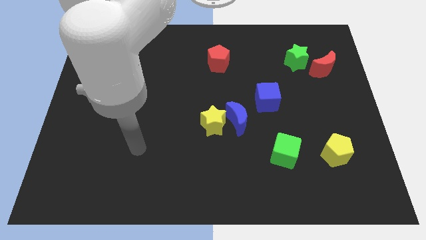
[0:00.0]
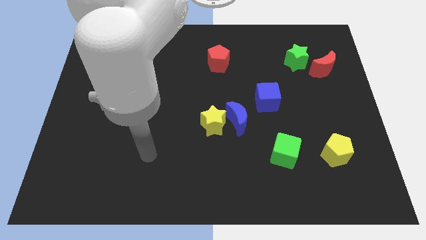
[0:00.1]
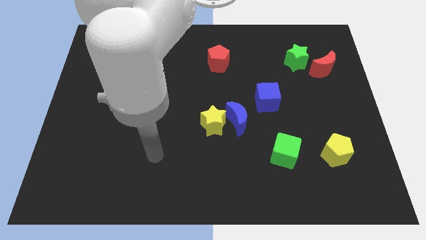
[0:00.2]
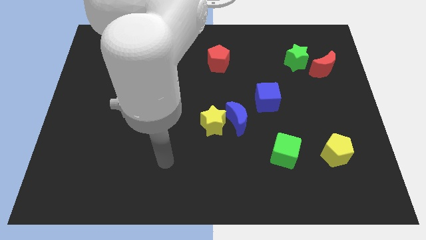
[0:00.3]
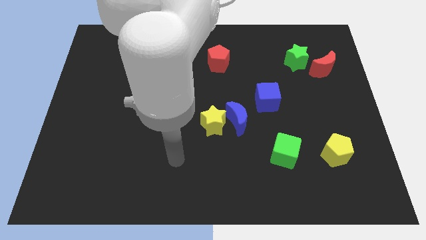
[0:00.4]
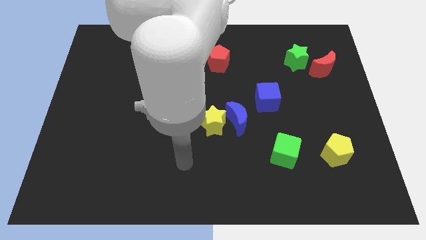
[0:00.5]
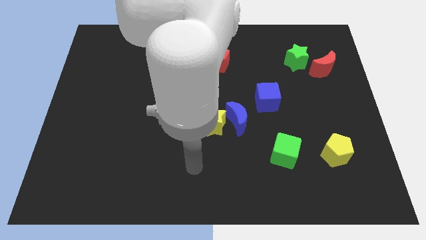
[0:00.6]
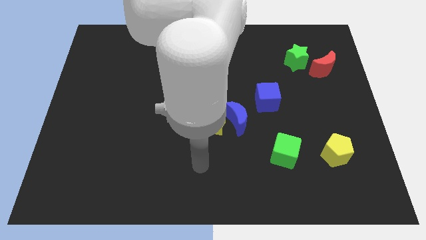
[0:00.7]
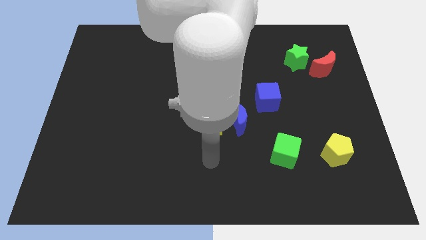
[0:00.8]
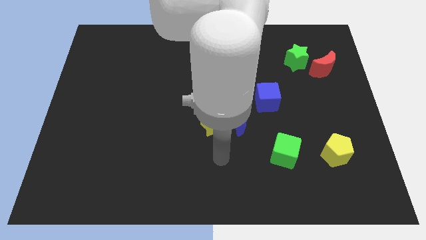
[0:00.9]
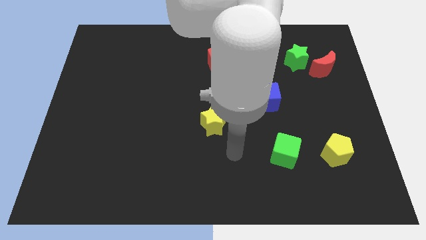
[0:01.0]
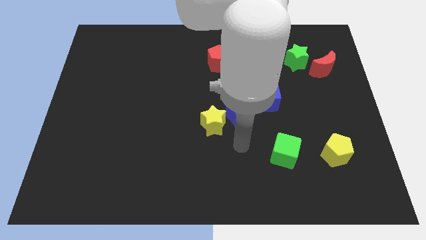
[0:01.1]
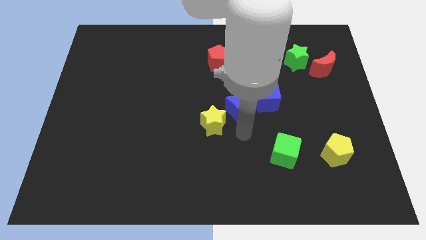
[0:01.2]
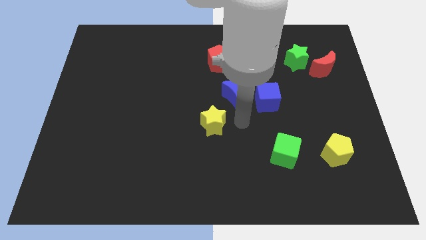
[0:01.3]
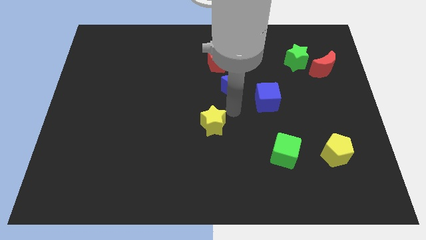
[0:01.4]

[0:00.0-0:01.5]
separate the yellow star from the blue moon

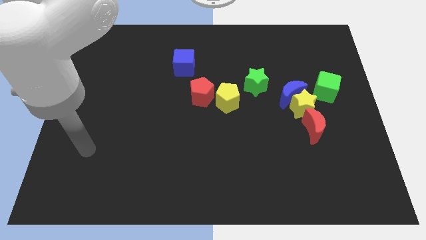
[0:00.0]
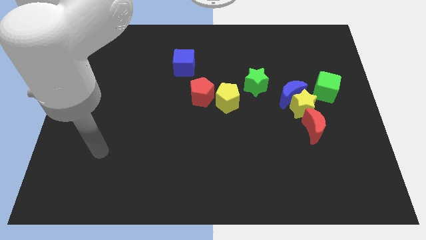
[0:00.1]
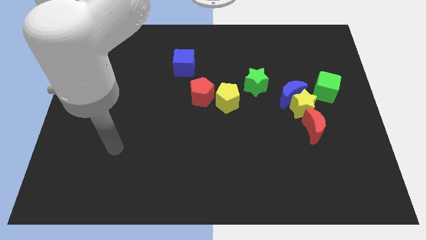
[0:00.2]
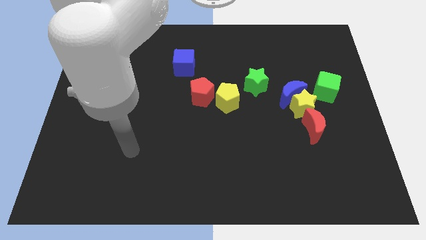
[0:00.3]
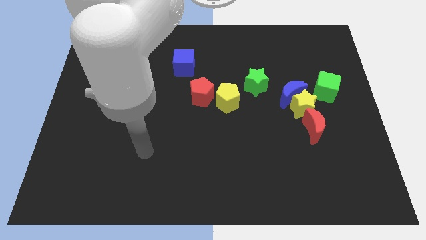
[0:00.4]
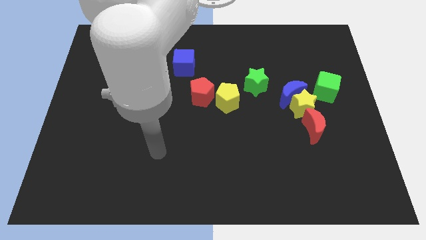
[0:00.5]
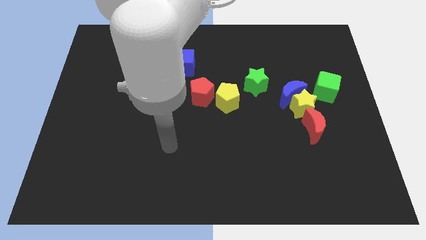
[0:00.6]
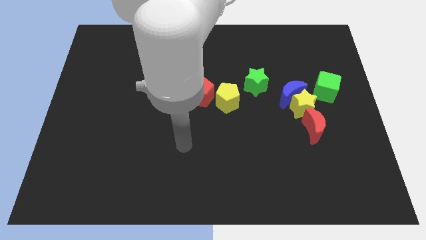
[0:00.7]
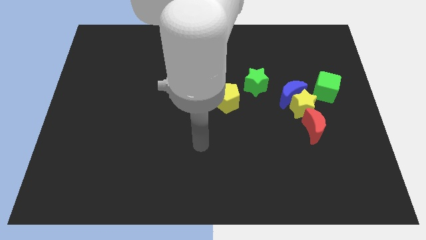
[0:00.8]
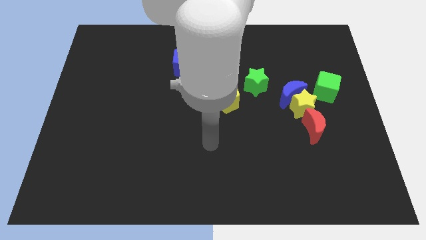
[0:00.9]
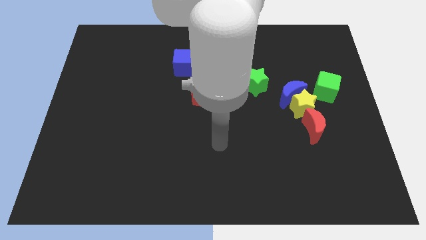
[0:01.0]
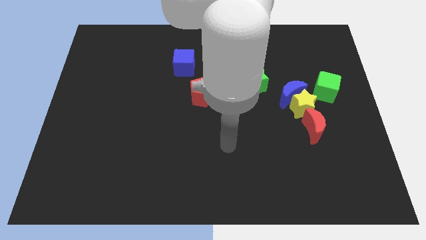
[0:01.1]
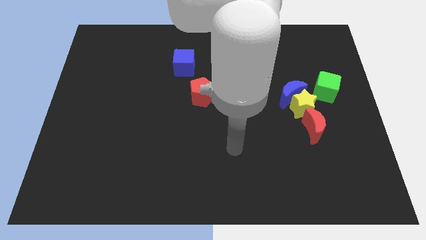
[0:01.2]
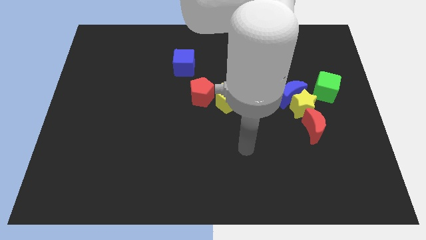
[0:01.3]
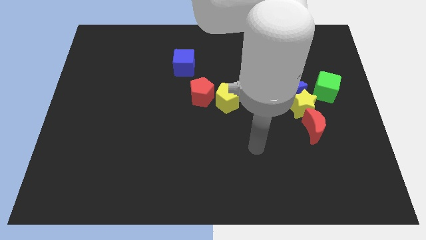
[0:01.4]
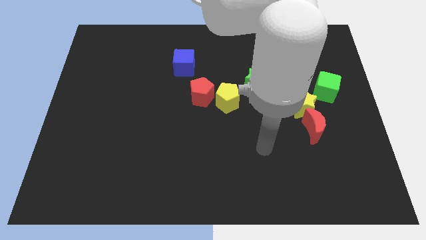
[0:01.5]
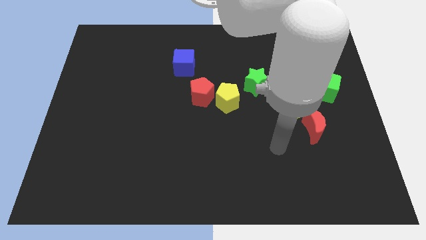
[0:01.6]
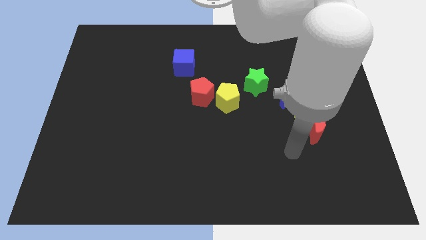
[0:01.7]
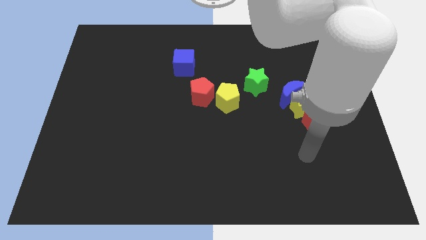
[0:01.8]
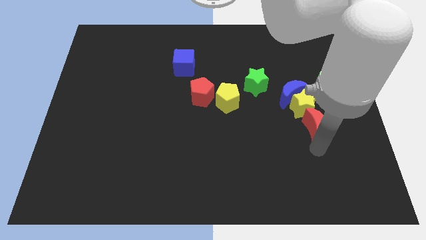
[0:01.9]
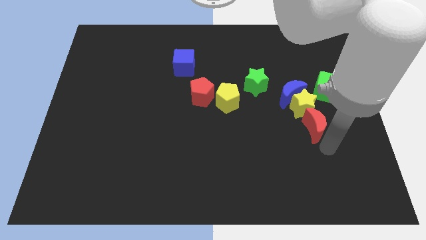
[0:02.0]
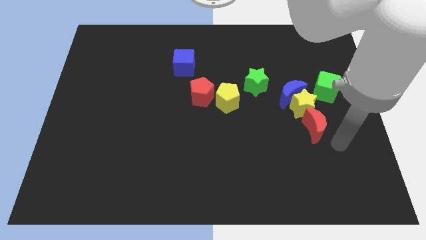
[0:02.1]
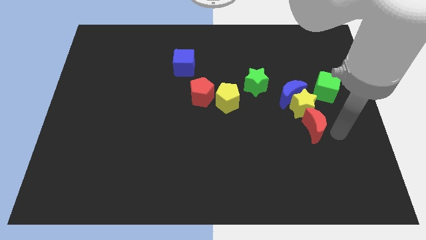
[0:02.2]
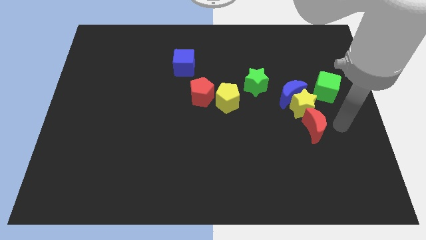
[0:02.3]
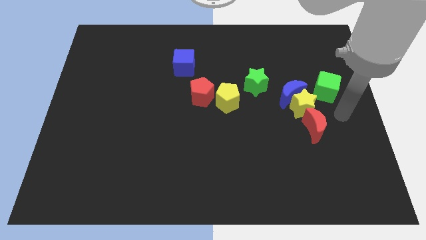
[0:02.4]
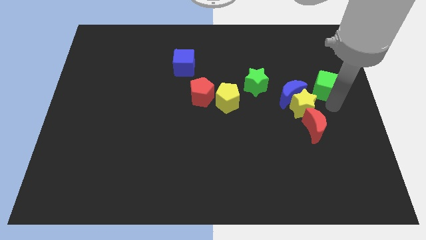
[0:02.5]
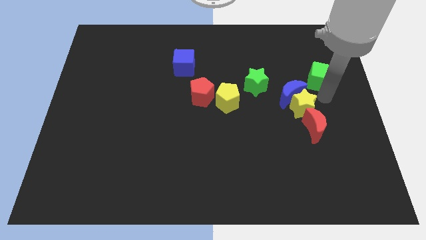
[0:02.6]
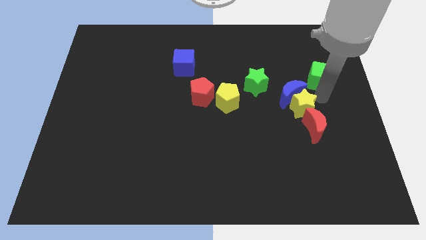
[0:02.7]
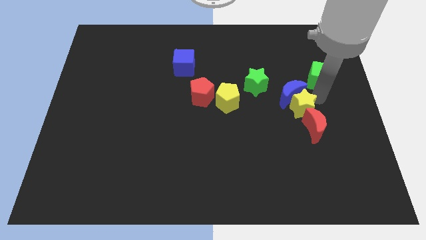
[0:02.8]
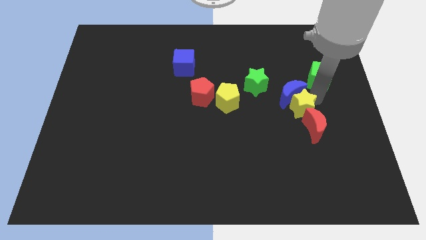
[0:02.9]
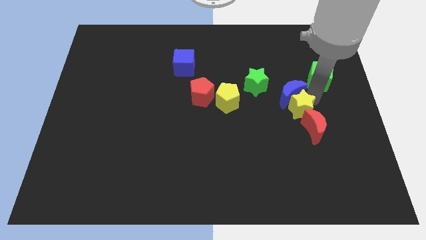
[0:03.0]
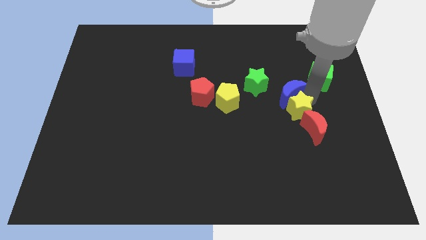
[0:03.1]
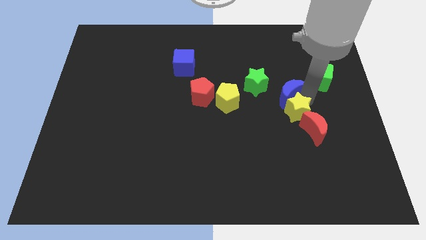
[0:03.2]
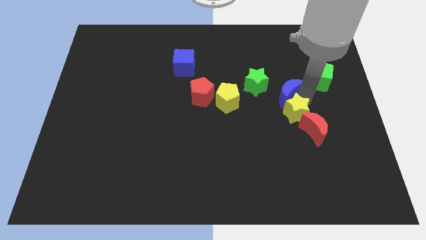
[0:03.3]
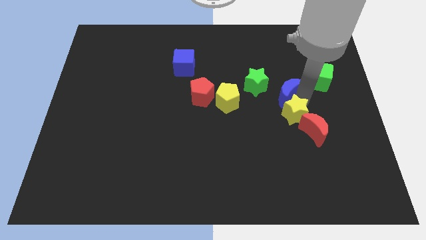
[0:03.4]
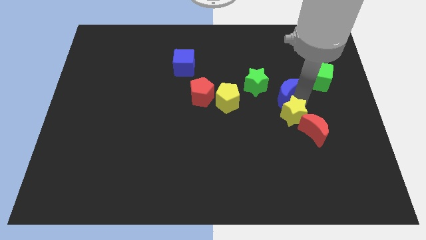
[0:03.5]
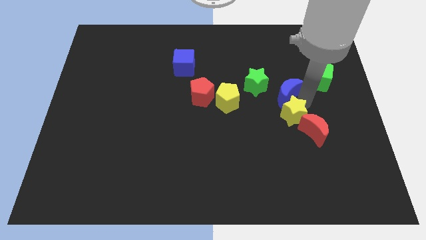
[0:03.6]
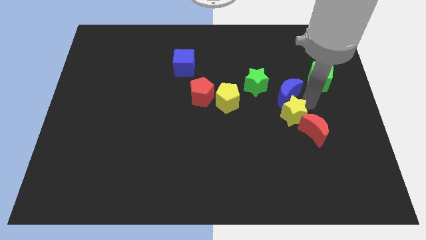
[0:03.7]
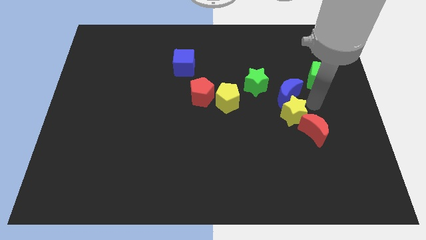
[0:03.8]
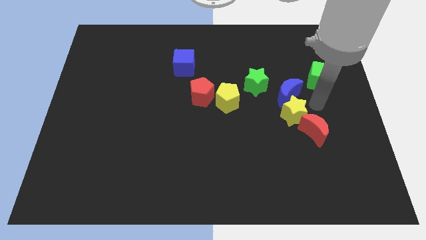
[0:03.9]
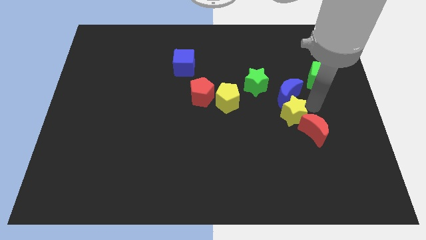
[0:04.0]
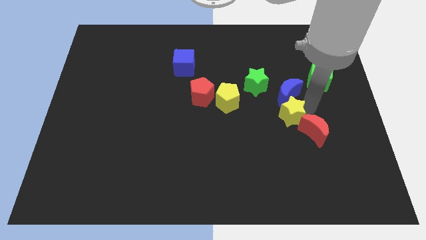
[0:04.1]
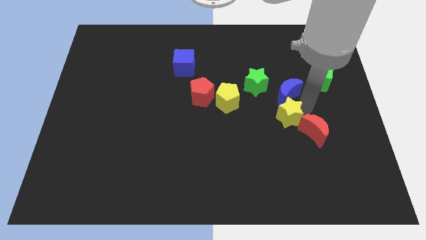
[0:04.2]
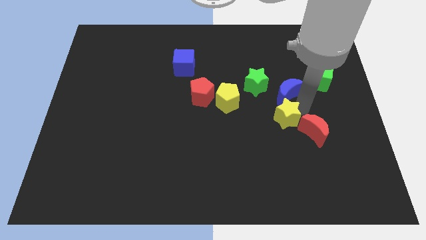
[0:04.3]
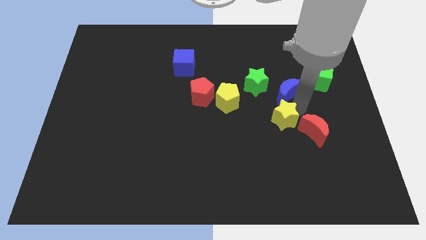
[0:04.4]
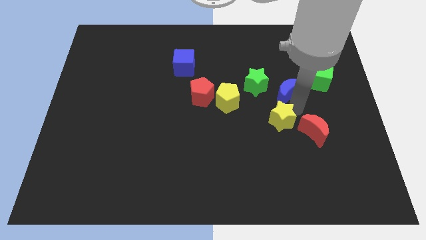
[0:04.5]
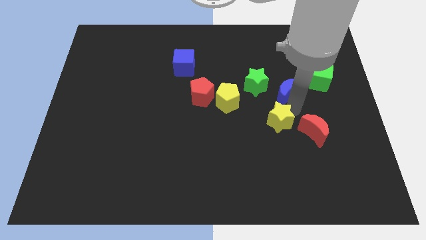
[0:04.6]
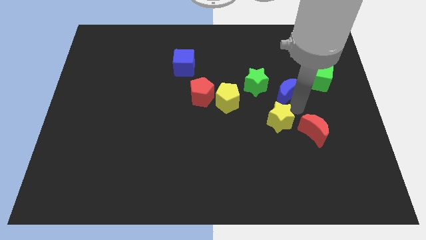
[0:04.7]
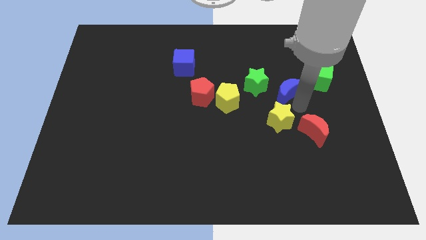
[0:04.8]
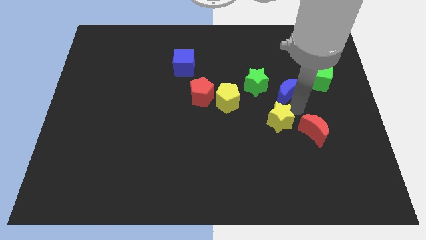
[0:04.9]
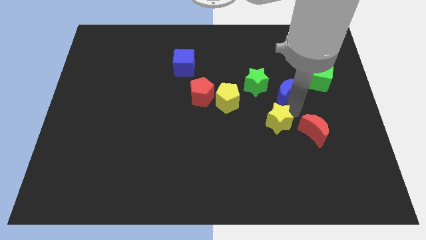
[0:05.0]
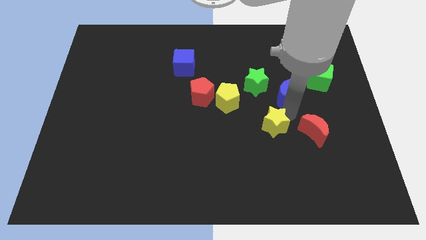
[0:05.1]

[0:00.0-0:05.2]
move the yellow star away from the blue moon, red moon, and green cube

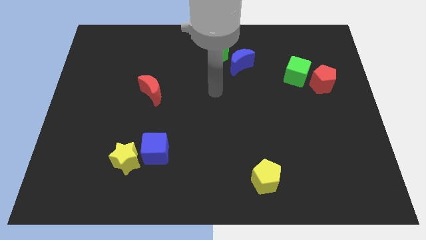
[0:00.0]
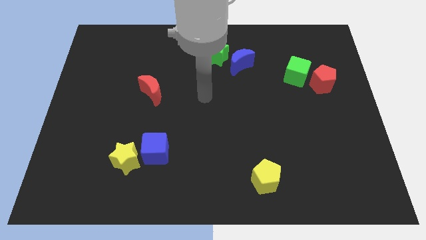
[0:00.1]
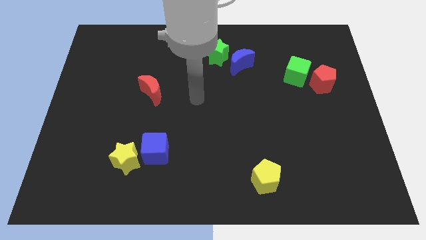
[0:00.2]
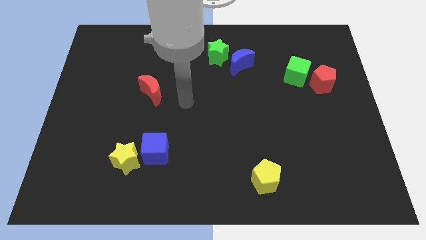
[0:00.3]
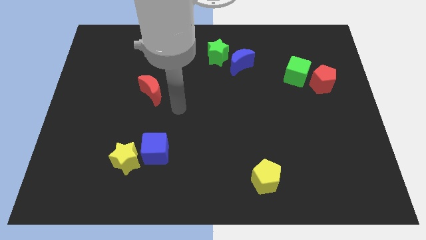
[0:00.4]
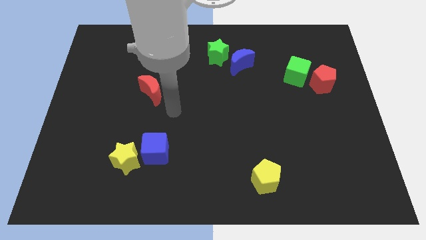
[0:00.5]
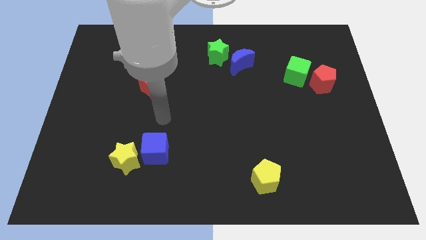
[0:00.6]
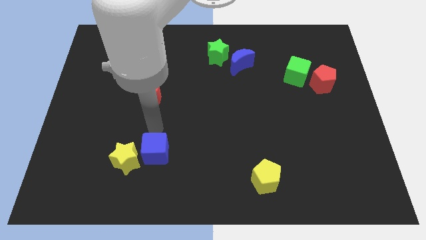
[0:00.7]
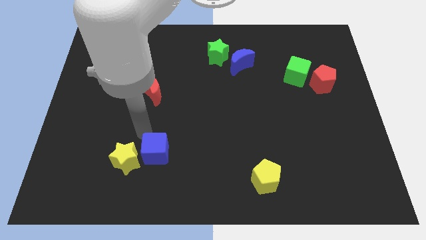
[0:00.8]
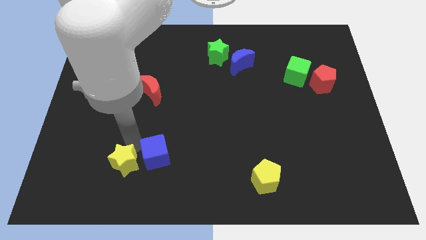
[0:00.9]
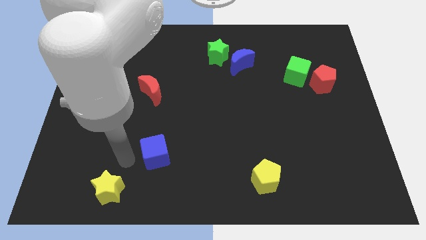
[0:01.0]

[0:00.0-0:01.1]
pull the blue cube apart from the yellow star

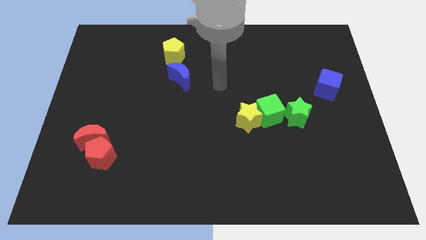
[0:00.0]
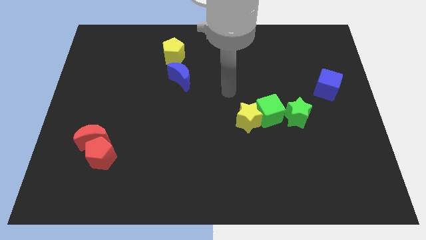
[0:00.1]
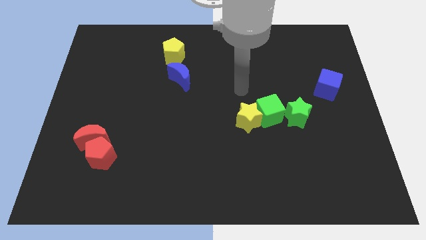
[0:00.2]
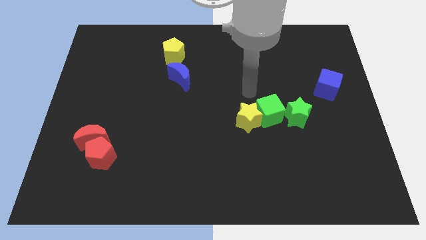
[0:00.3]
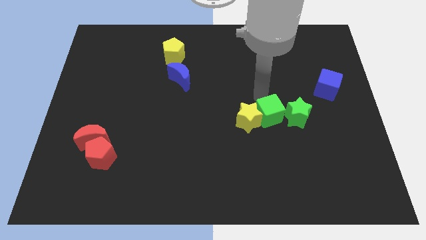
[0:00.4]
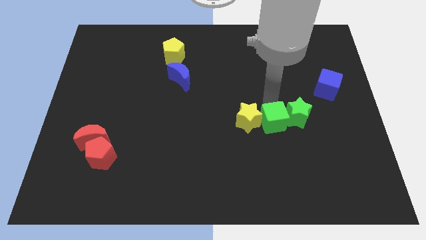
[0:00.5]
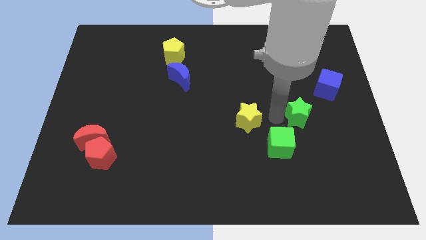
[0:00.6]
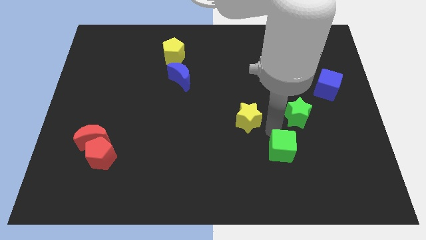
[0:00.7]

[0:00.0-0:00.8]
separate the yellow star from the green cube

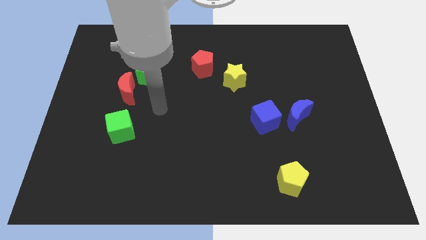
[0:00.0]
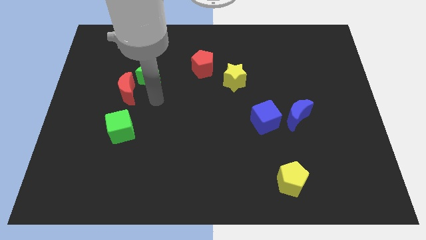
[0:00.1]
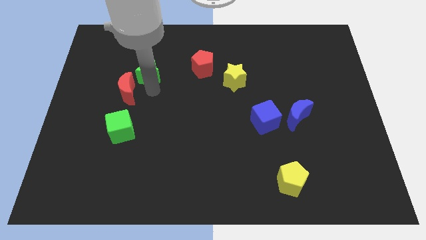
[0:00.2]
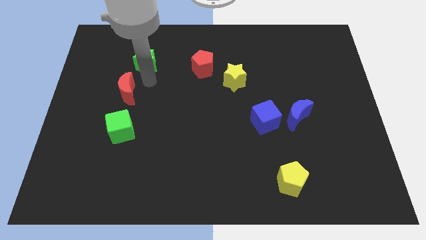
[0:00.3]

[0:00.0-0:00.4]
move the red moon away from the green star

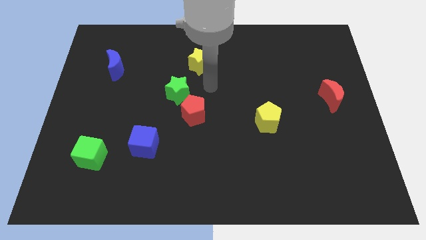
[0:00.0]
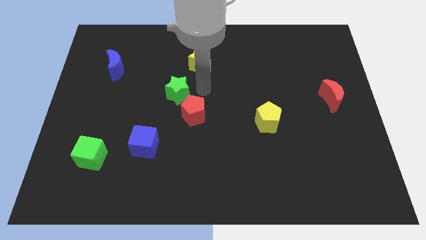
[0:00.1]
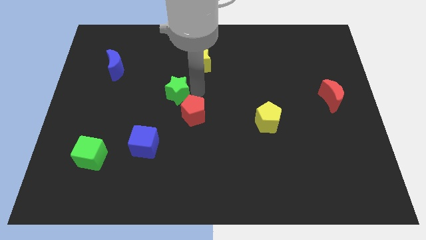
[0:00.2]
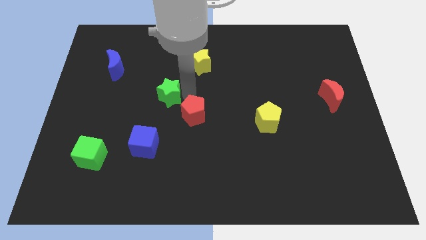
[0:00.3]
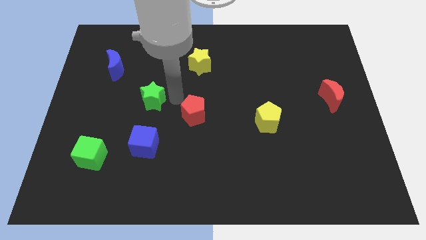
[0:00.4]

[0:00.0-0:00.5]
move the red pentagon away from the green star
